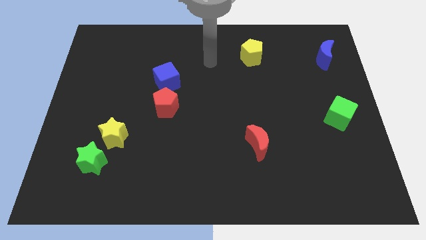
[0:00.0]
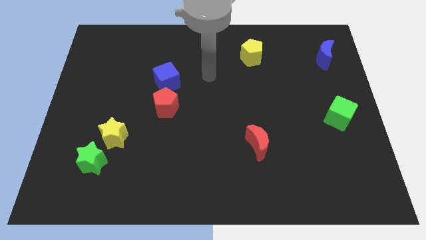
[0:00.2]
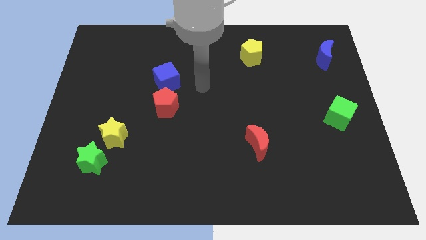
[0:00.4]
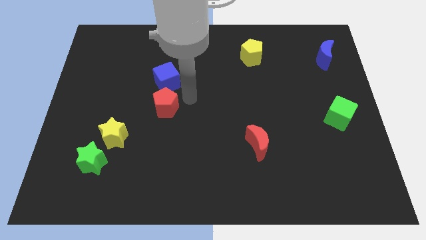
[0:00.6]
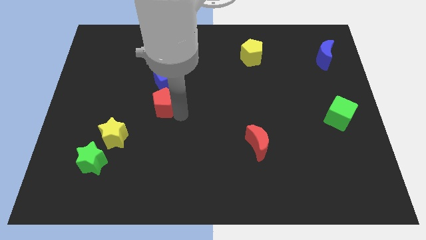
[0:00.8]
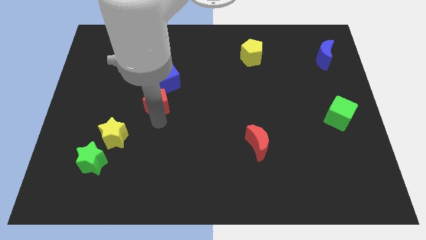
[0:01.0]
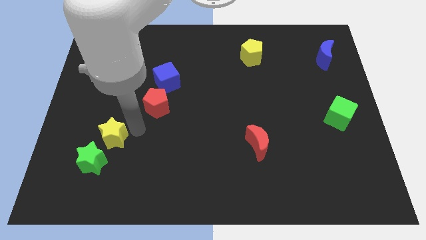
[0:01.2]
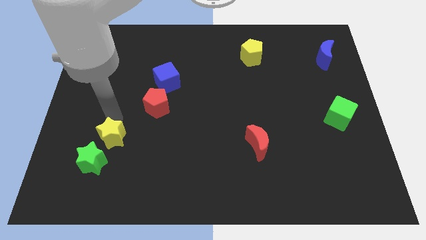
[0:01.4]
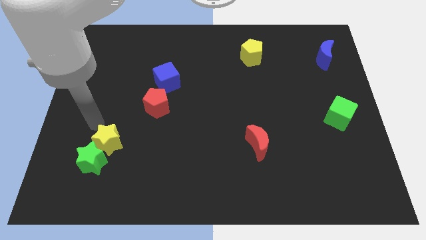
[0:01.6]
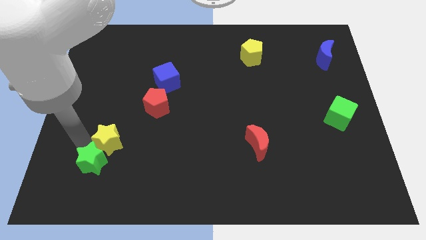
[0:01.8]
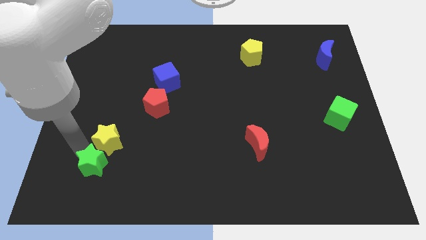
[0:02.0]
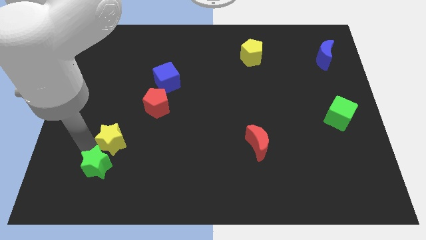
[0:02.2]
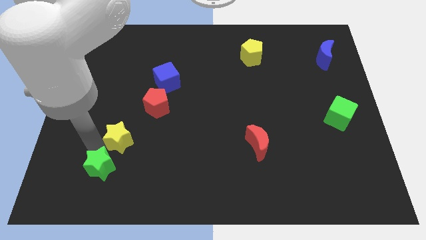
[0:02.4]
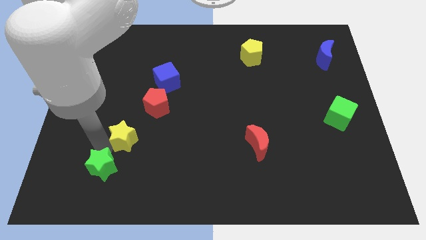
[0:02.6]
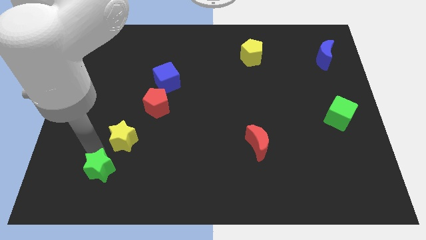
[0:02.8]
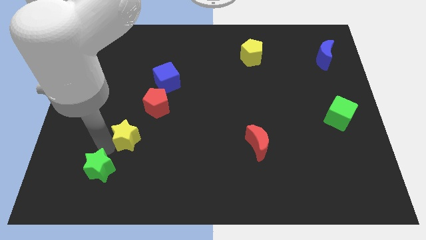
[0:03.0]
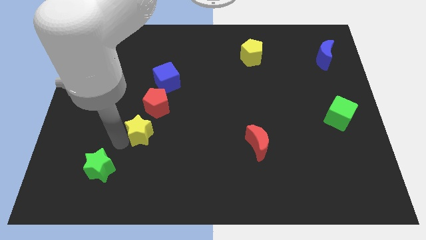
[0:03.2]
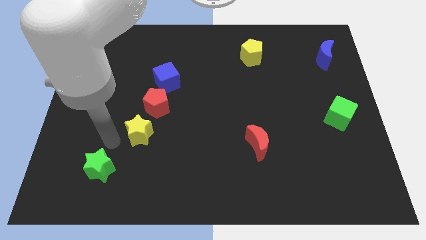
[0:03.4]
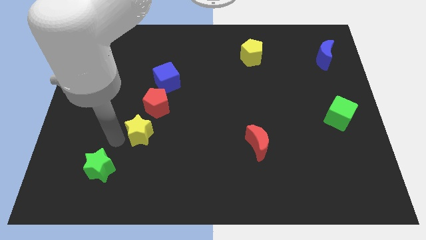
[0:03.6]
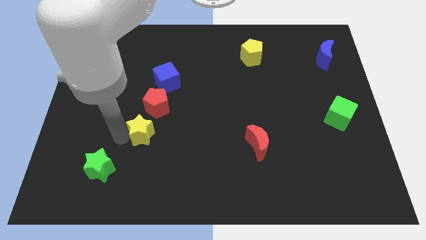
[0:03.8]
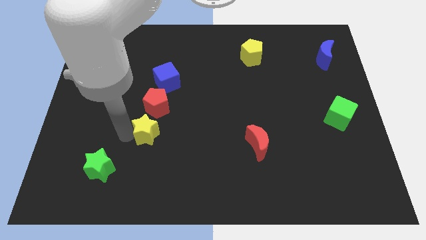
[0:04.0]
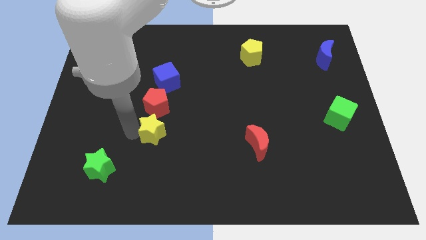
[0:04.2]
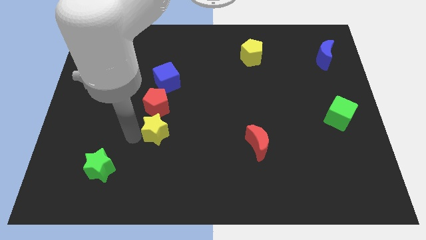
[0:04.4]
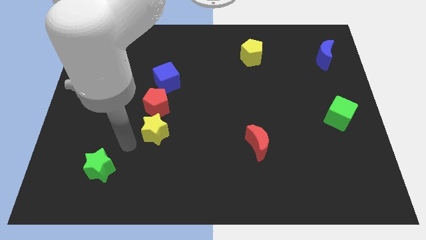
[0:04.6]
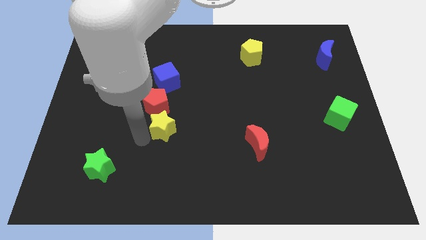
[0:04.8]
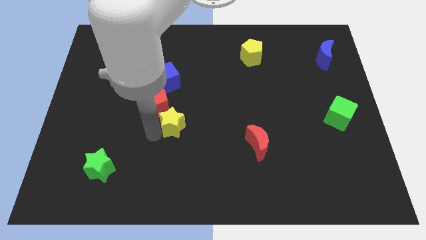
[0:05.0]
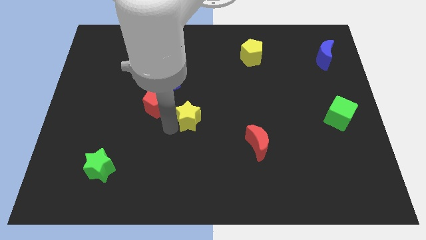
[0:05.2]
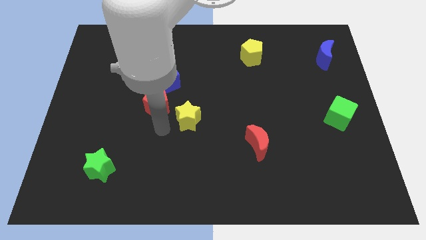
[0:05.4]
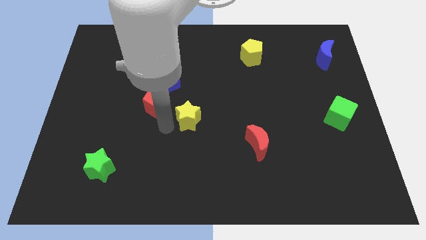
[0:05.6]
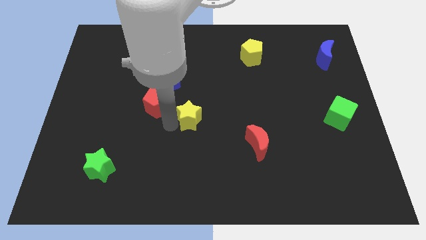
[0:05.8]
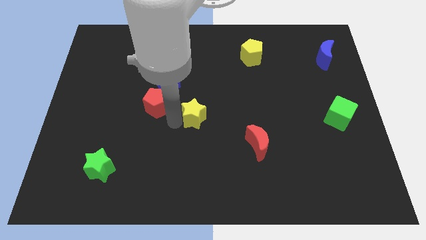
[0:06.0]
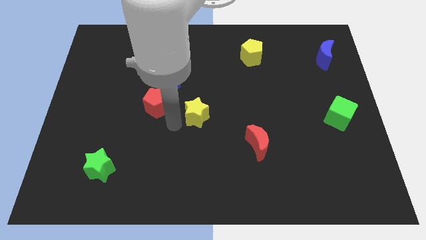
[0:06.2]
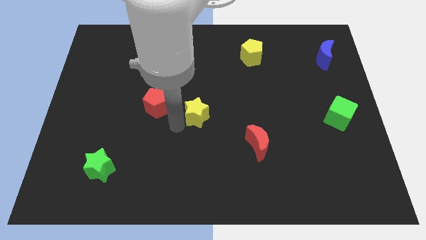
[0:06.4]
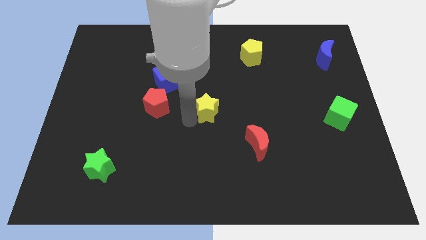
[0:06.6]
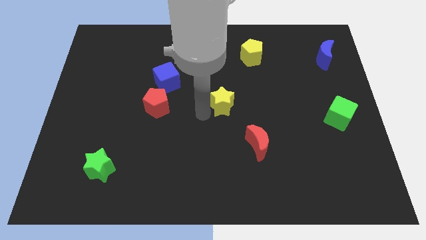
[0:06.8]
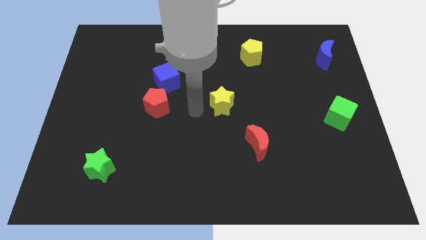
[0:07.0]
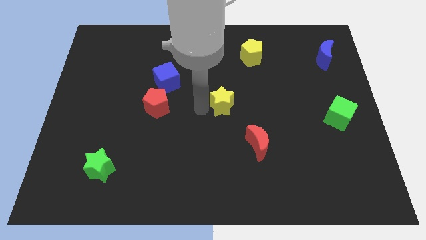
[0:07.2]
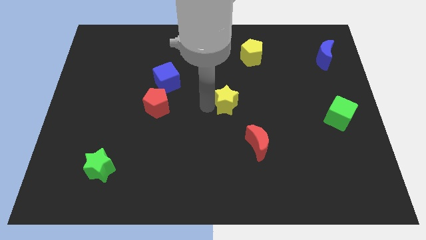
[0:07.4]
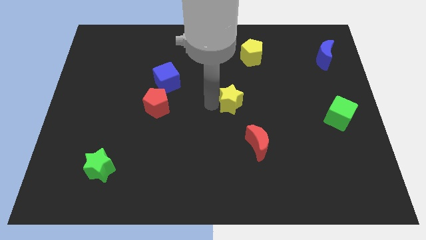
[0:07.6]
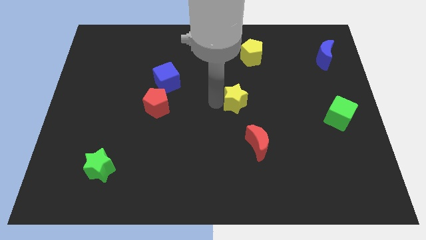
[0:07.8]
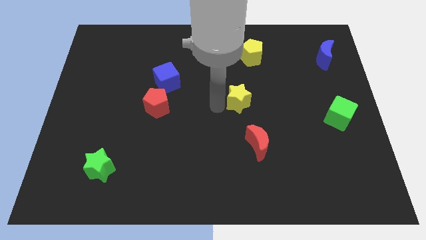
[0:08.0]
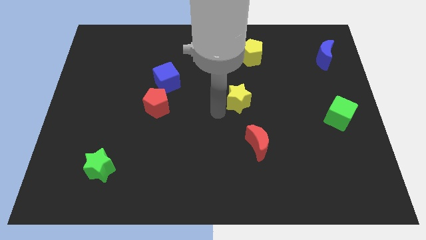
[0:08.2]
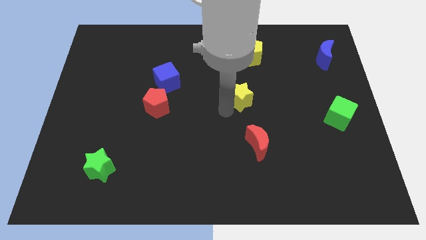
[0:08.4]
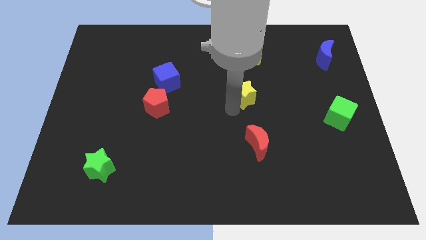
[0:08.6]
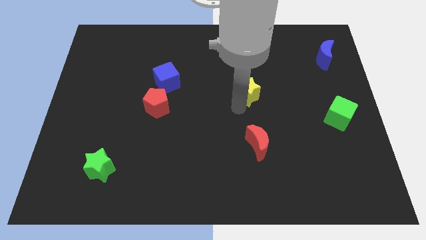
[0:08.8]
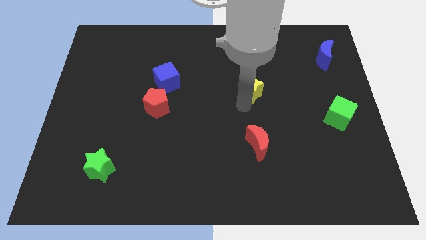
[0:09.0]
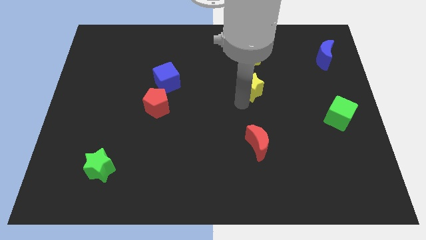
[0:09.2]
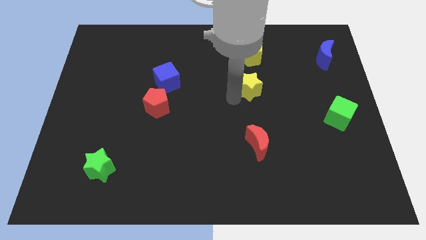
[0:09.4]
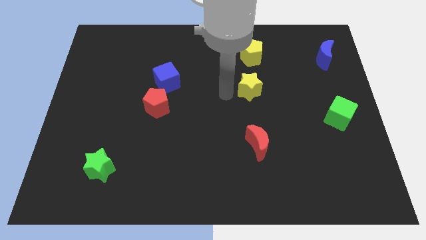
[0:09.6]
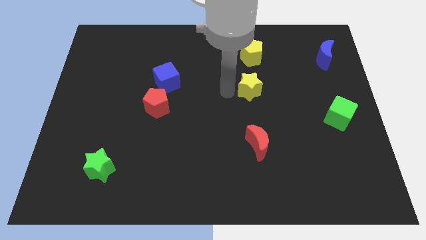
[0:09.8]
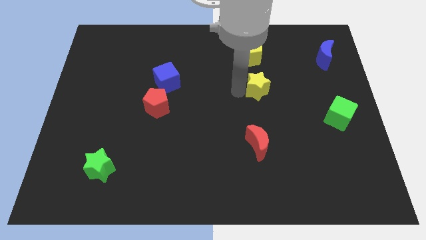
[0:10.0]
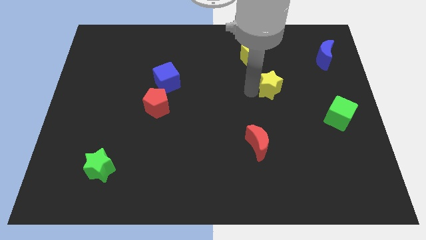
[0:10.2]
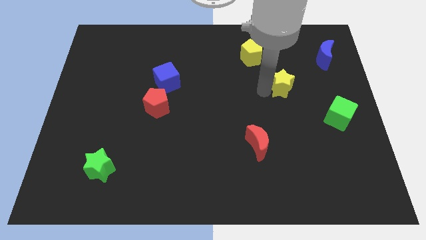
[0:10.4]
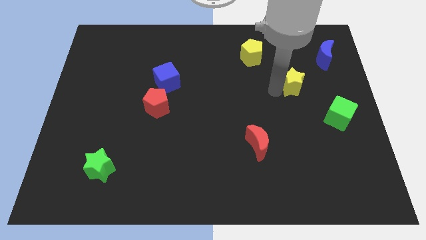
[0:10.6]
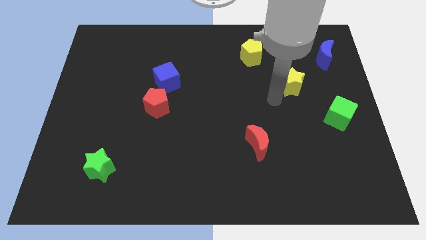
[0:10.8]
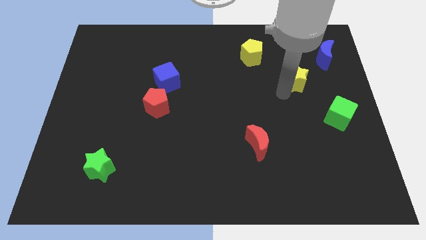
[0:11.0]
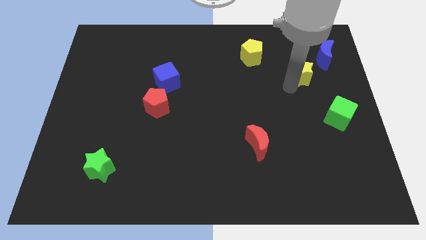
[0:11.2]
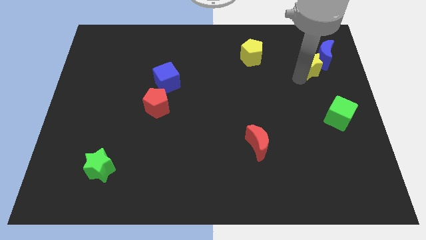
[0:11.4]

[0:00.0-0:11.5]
put the yellow star to the blue moon

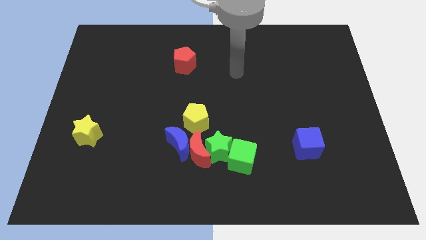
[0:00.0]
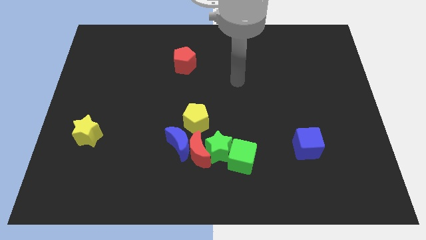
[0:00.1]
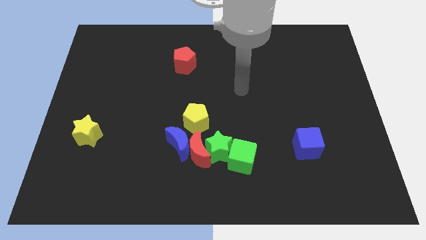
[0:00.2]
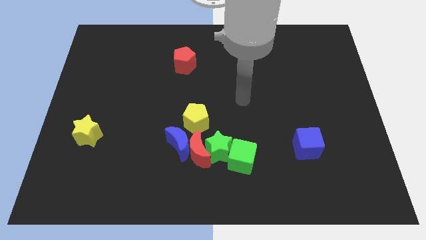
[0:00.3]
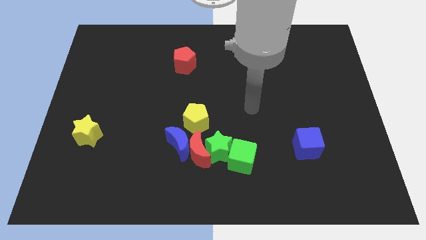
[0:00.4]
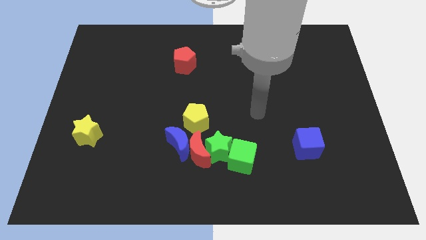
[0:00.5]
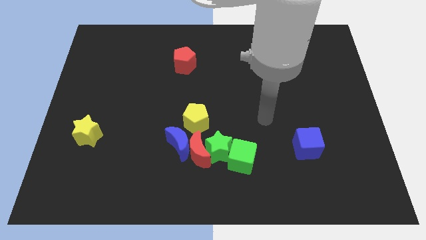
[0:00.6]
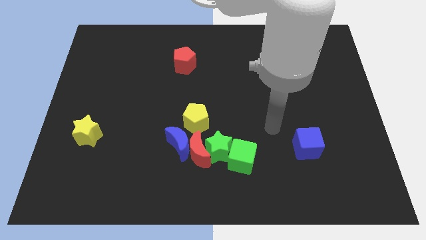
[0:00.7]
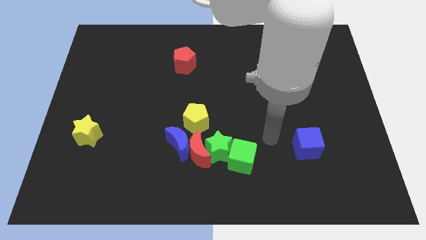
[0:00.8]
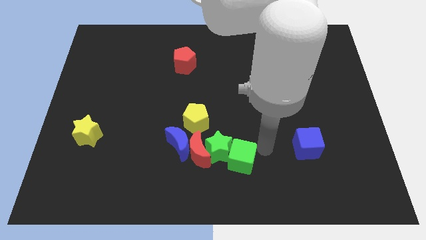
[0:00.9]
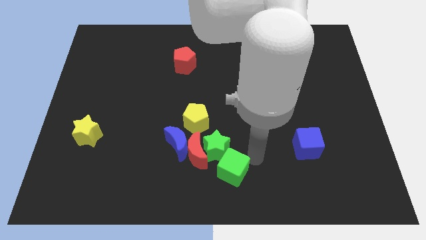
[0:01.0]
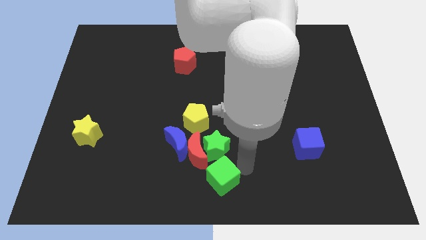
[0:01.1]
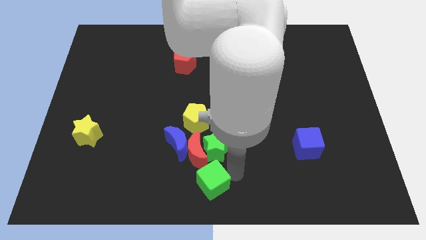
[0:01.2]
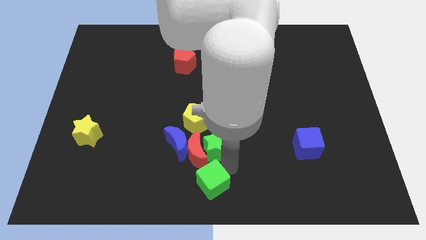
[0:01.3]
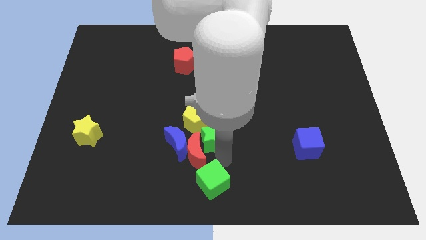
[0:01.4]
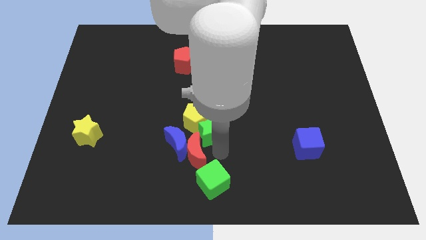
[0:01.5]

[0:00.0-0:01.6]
put the green star close to the yellow pentagon

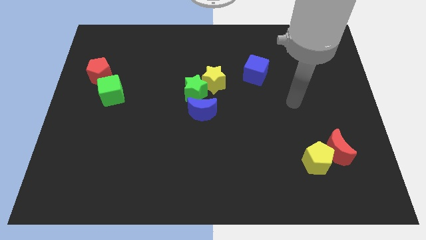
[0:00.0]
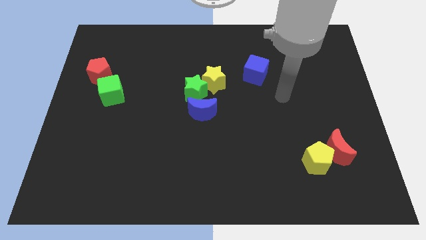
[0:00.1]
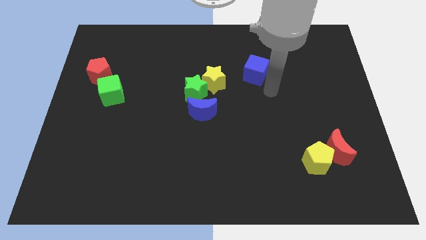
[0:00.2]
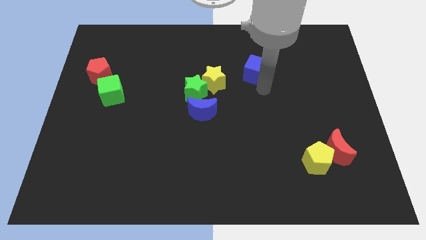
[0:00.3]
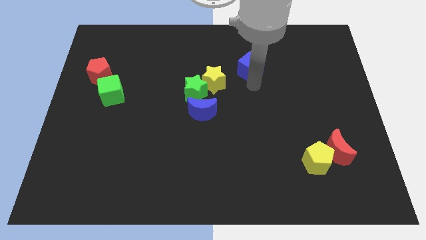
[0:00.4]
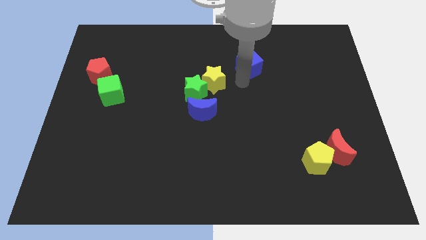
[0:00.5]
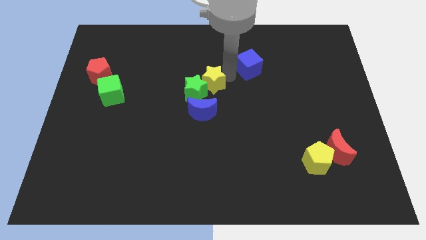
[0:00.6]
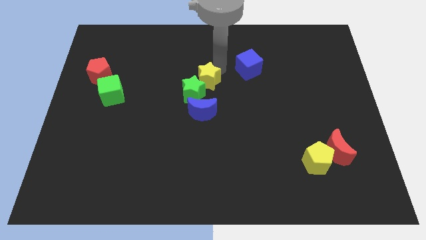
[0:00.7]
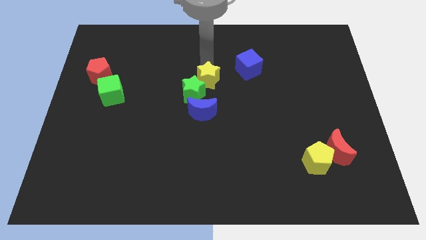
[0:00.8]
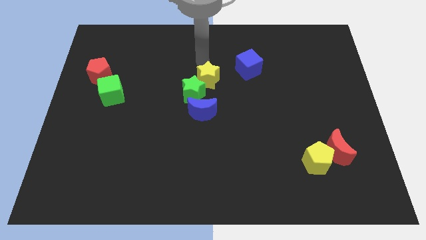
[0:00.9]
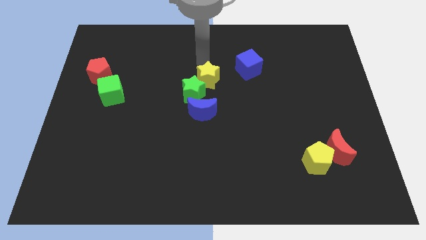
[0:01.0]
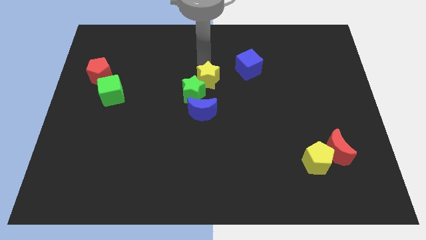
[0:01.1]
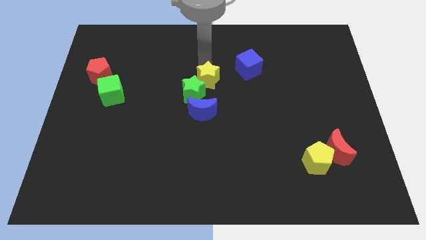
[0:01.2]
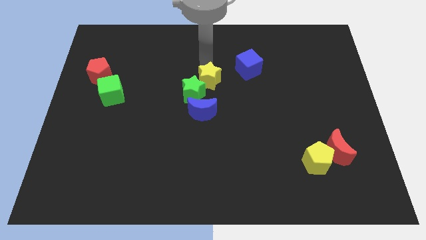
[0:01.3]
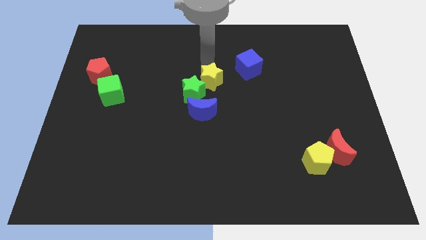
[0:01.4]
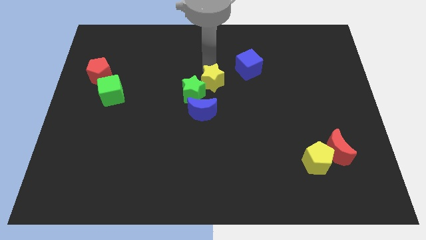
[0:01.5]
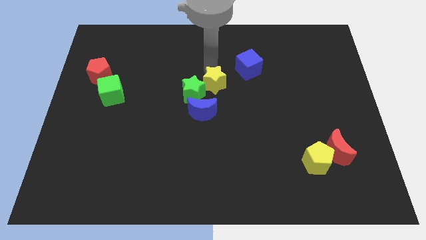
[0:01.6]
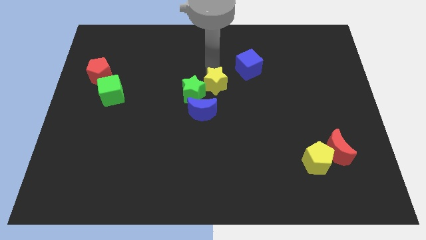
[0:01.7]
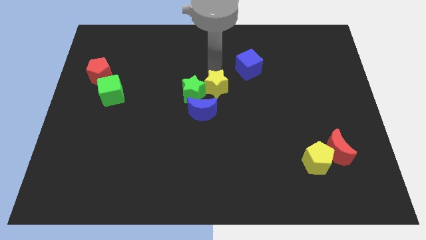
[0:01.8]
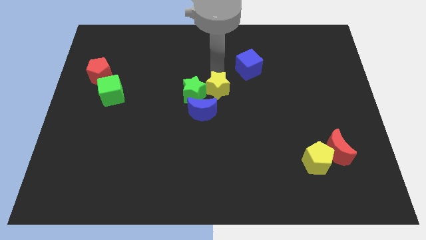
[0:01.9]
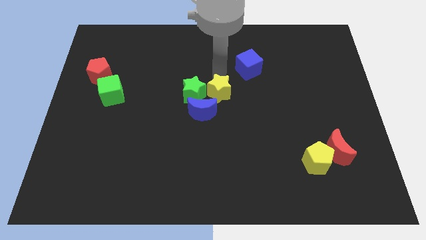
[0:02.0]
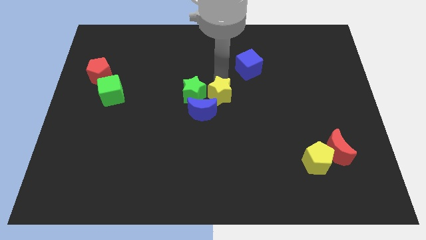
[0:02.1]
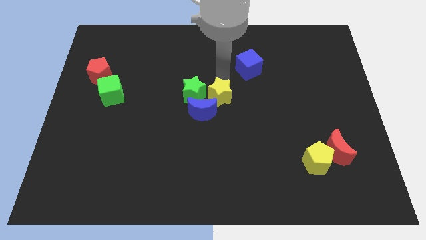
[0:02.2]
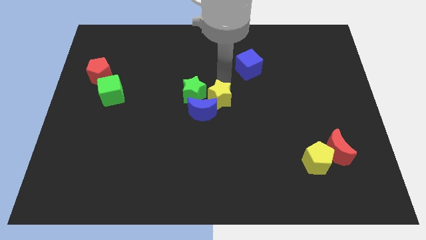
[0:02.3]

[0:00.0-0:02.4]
push the yellow star close to the blue moon
